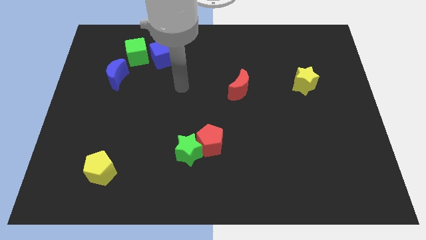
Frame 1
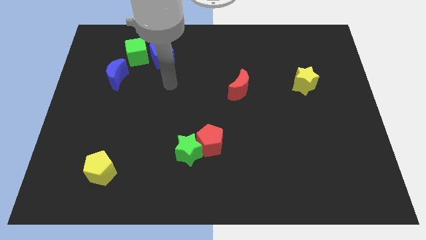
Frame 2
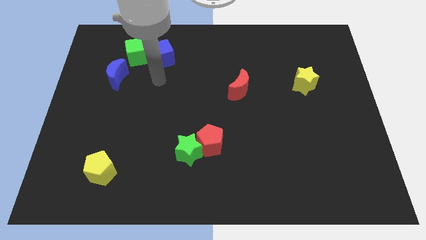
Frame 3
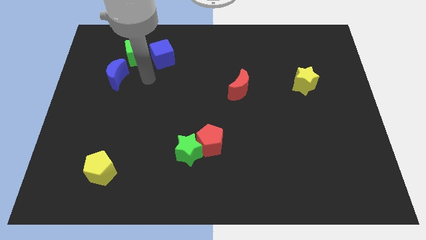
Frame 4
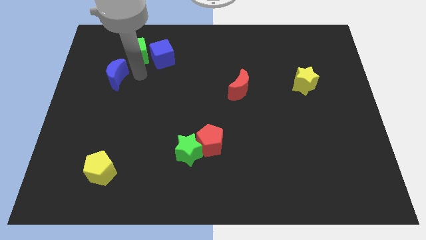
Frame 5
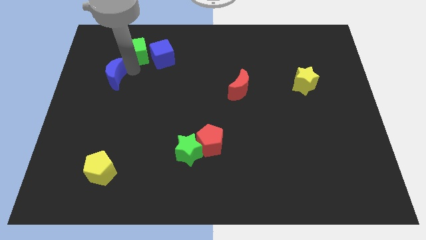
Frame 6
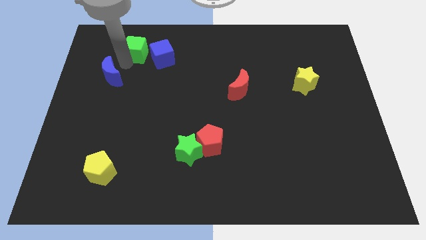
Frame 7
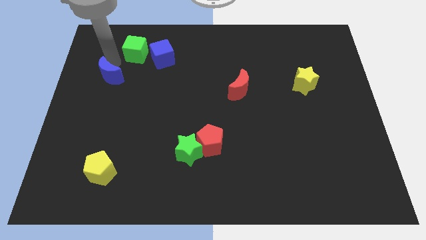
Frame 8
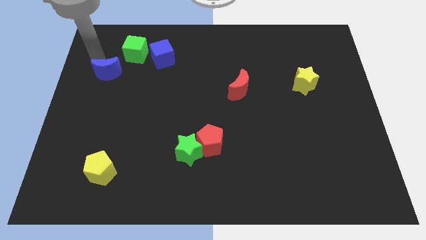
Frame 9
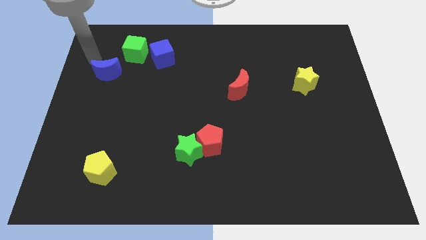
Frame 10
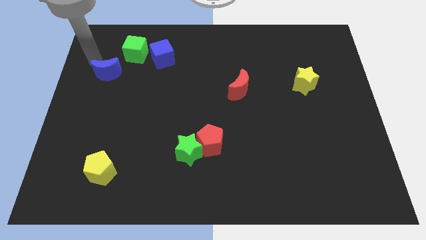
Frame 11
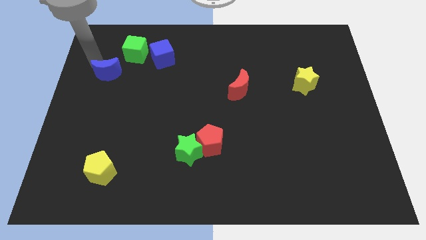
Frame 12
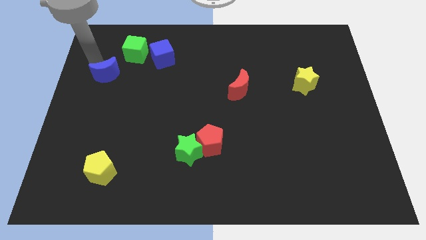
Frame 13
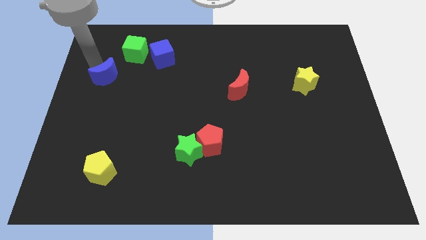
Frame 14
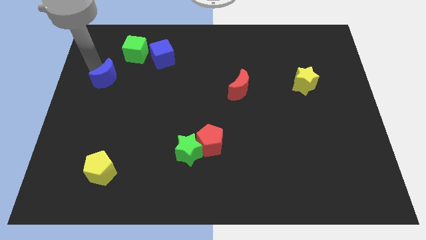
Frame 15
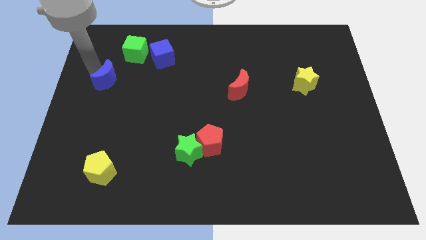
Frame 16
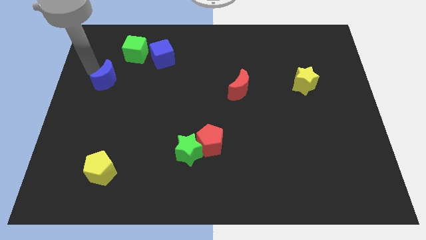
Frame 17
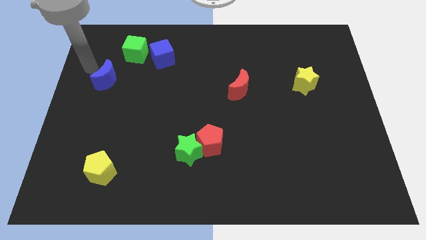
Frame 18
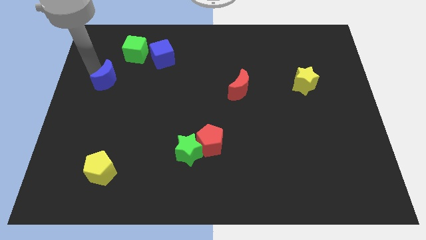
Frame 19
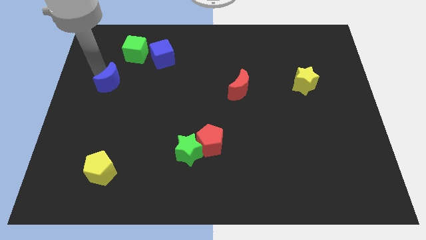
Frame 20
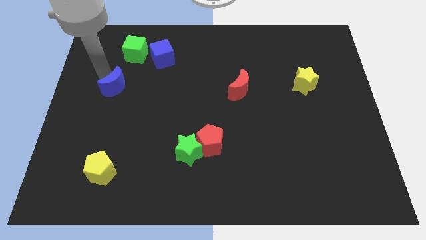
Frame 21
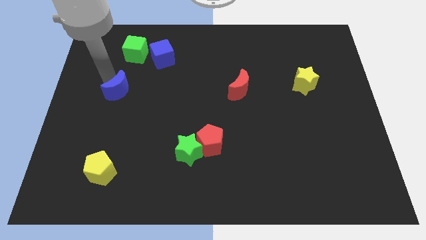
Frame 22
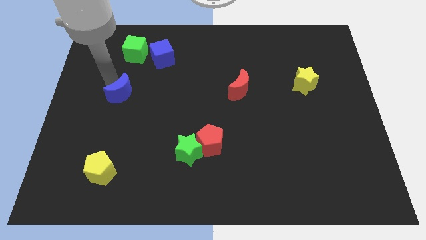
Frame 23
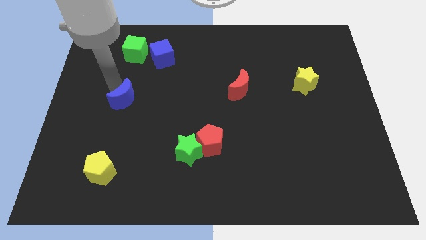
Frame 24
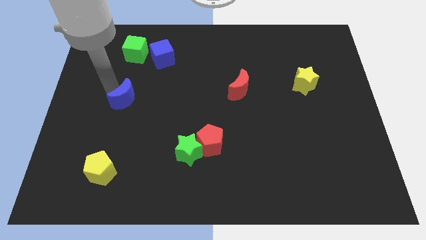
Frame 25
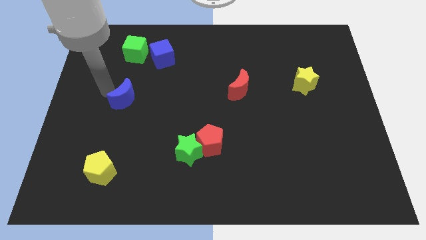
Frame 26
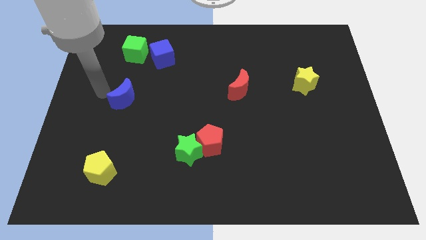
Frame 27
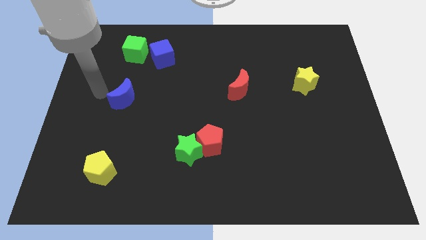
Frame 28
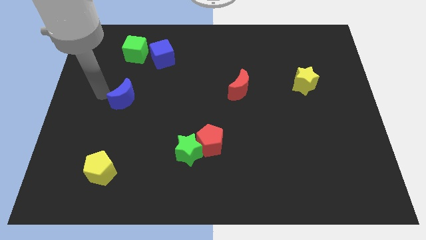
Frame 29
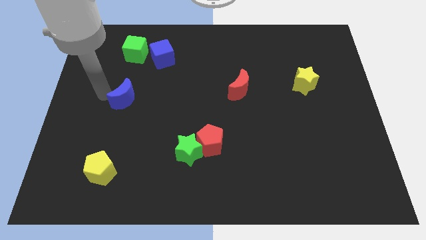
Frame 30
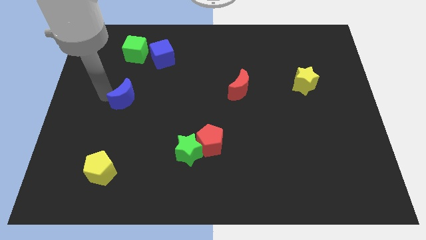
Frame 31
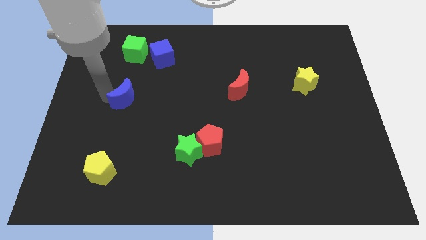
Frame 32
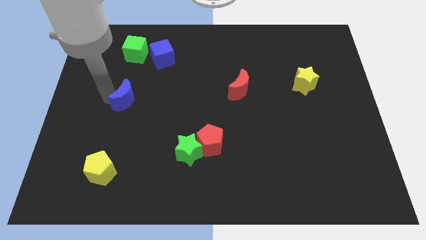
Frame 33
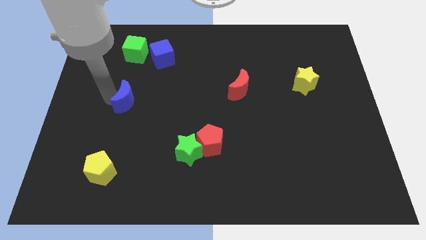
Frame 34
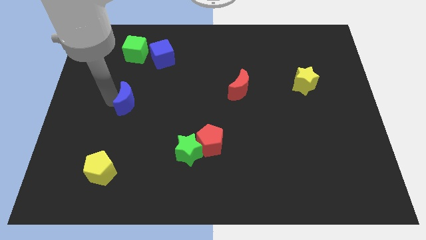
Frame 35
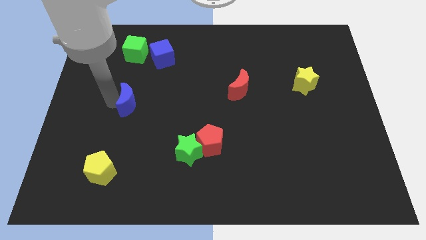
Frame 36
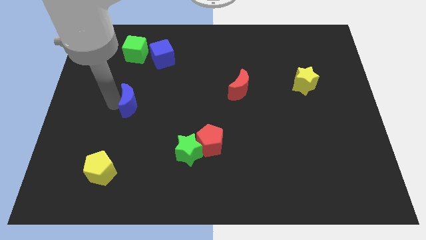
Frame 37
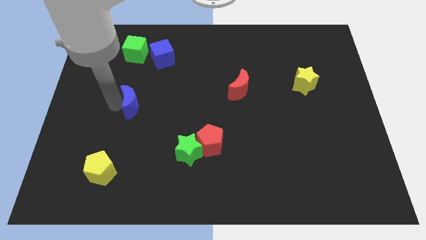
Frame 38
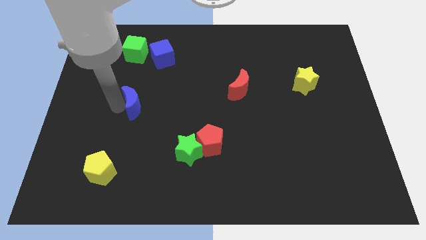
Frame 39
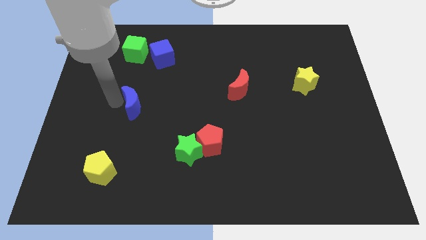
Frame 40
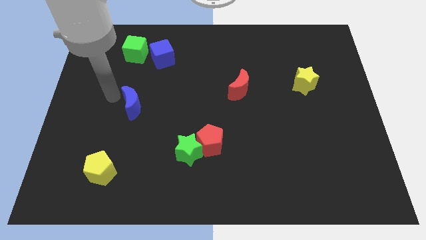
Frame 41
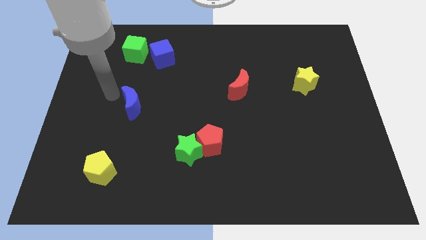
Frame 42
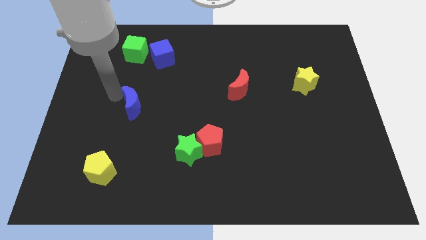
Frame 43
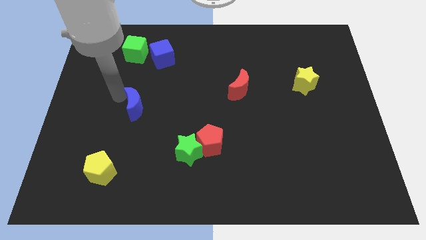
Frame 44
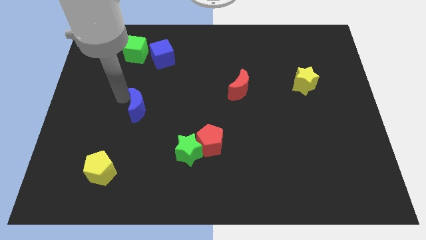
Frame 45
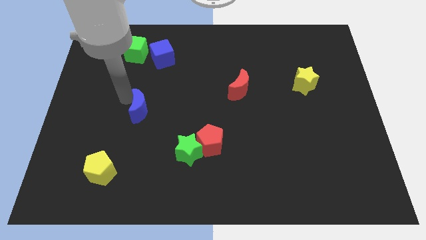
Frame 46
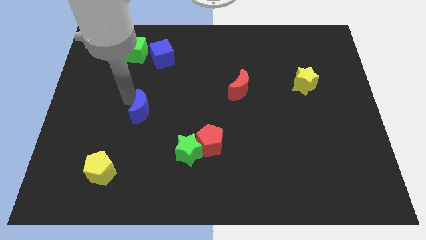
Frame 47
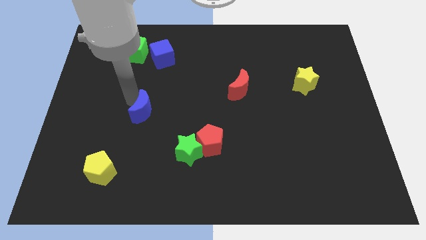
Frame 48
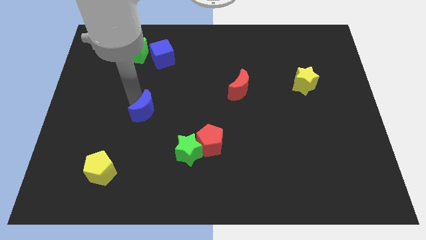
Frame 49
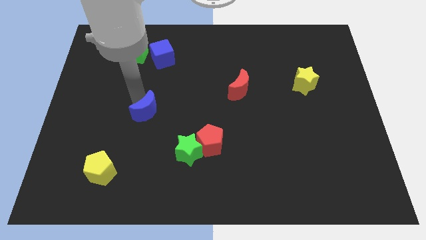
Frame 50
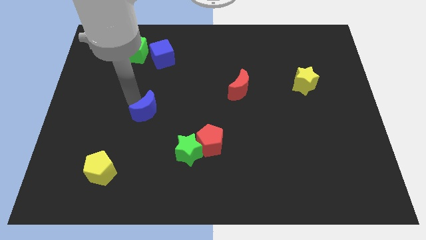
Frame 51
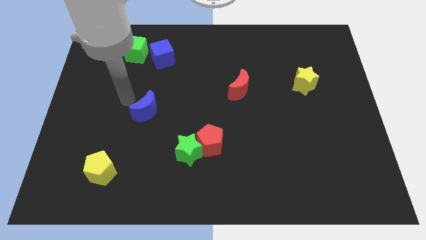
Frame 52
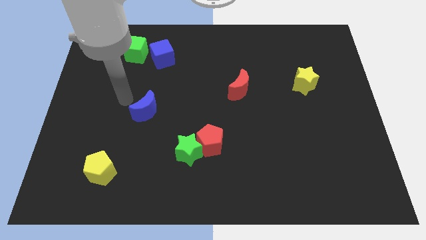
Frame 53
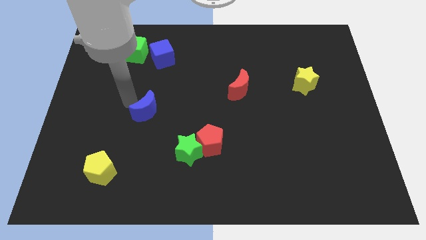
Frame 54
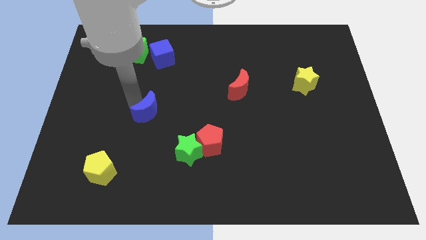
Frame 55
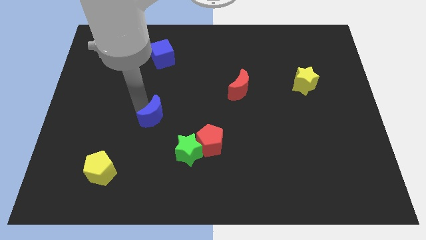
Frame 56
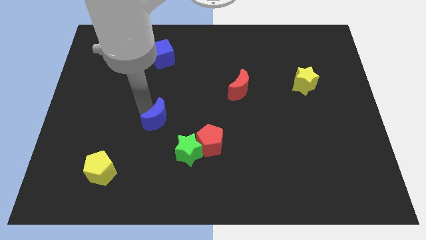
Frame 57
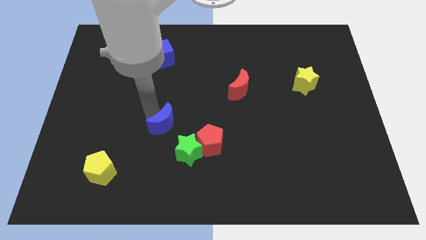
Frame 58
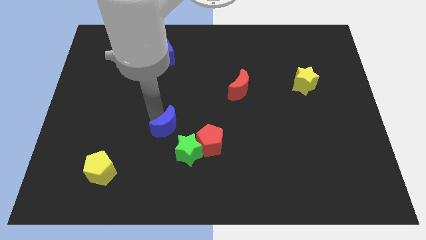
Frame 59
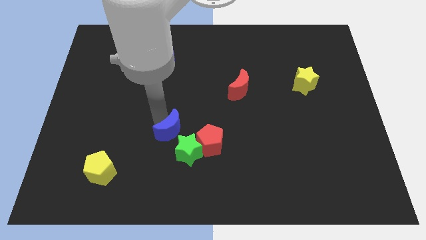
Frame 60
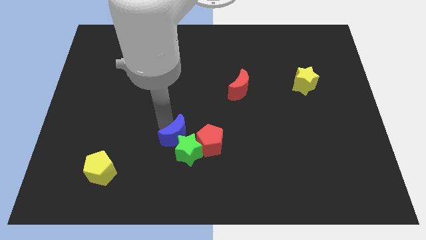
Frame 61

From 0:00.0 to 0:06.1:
move the blue moon next to the green star
